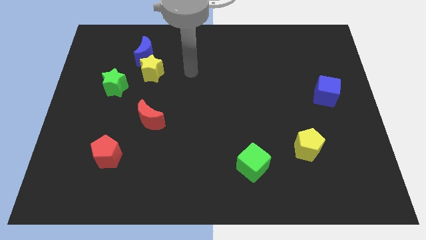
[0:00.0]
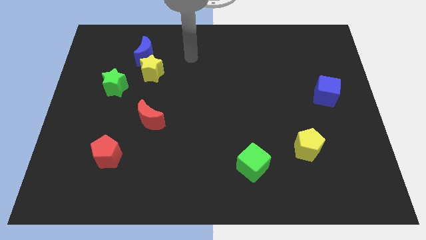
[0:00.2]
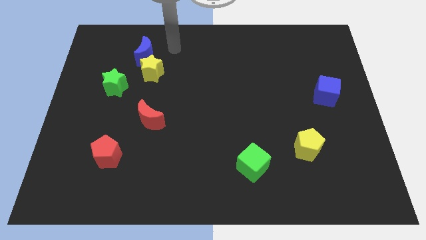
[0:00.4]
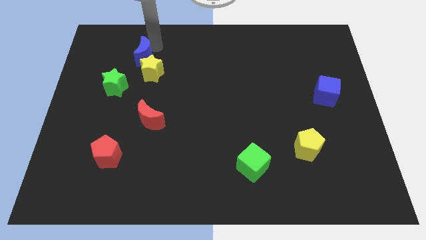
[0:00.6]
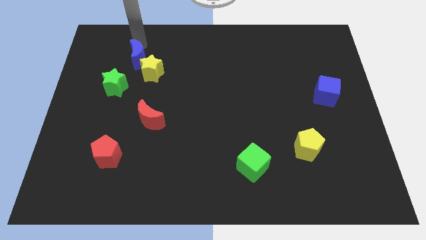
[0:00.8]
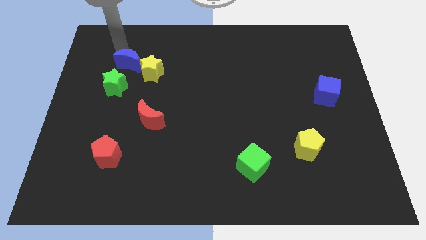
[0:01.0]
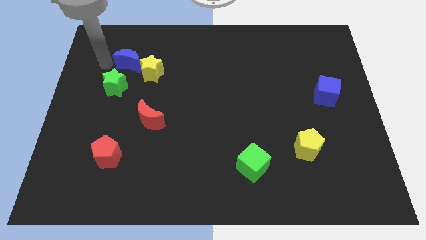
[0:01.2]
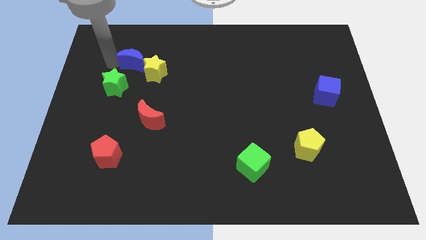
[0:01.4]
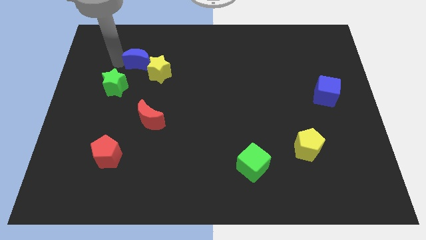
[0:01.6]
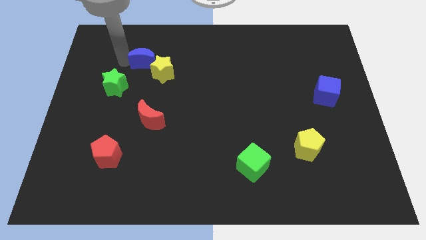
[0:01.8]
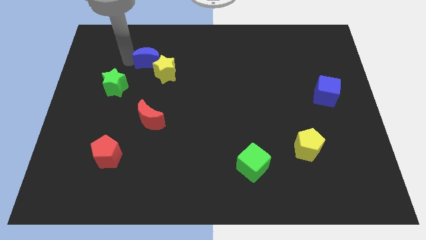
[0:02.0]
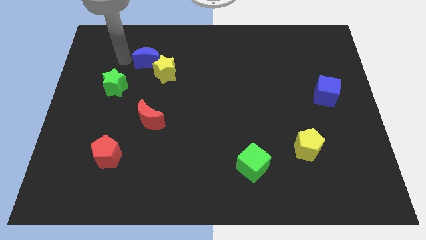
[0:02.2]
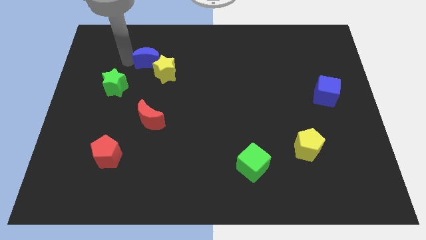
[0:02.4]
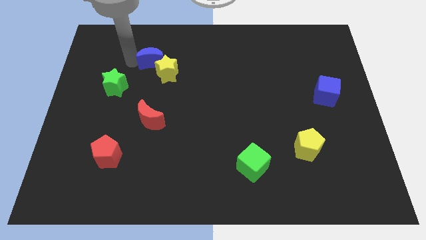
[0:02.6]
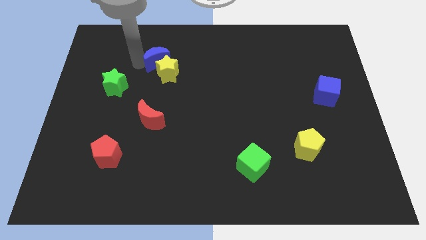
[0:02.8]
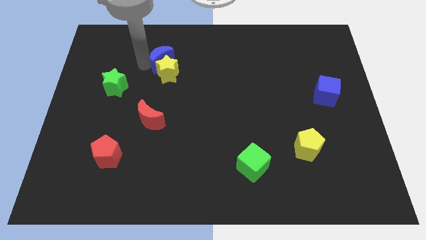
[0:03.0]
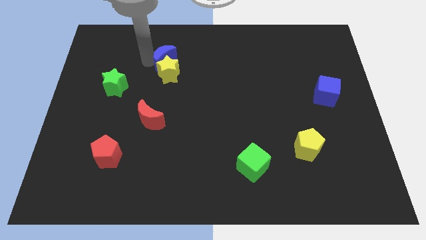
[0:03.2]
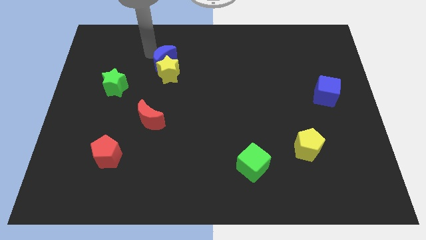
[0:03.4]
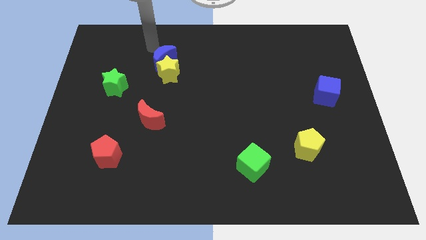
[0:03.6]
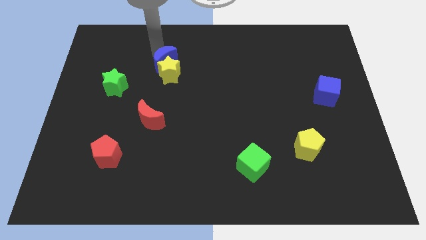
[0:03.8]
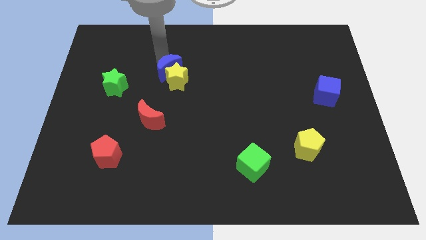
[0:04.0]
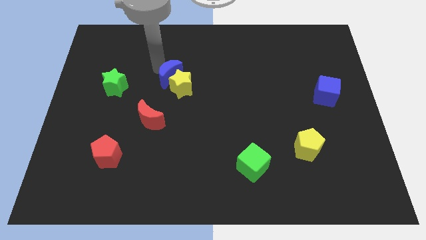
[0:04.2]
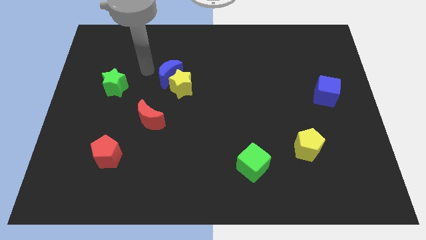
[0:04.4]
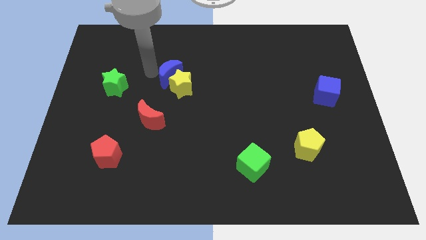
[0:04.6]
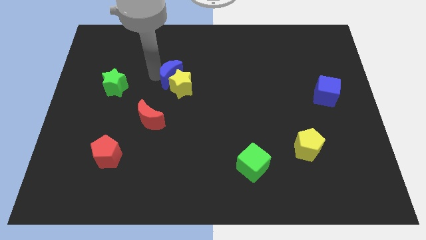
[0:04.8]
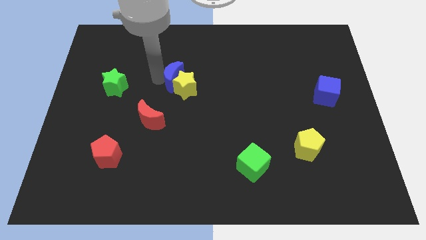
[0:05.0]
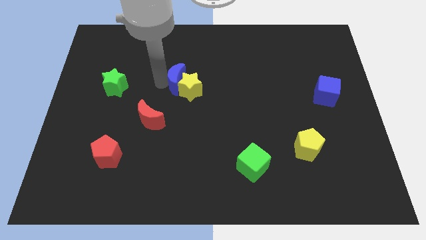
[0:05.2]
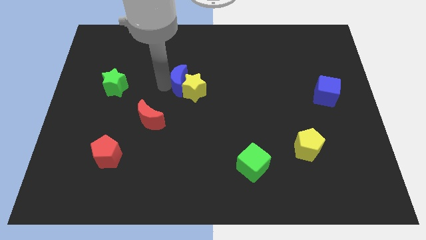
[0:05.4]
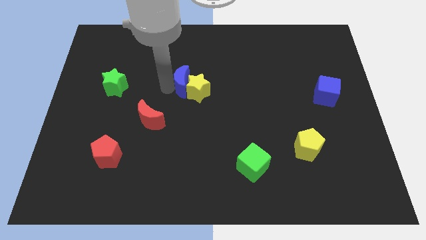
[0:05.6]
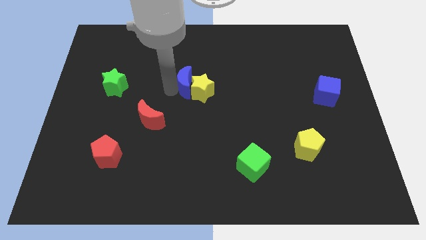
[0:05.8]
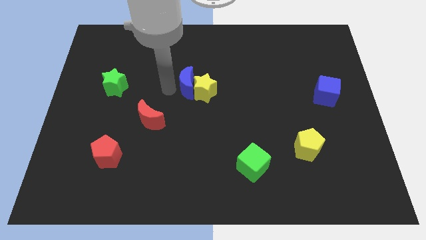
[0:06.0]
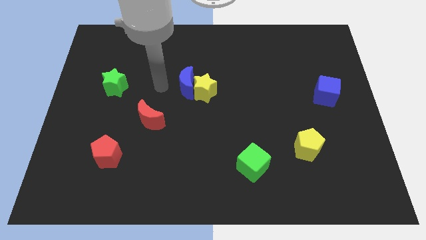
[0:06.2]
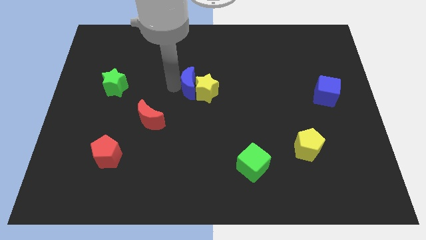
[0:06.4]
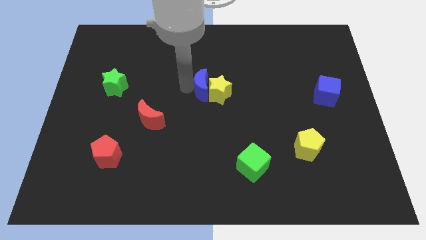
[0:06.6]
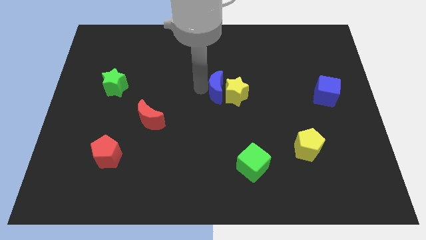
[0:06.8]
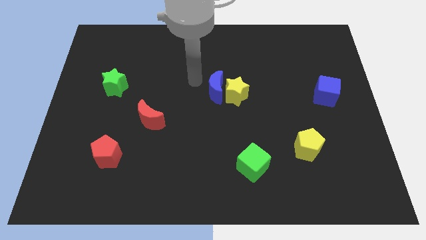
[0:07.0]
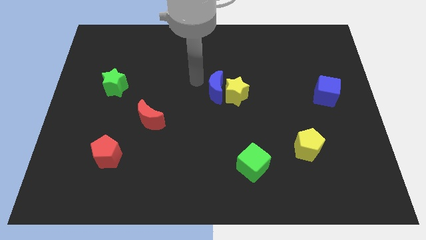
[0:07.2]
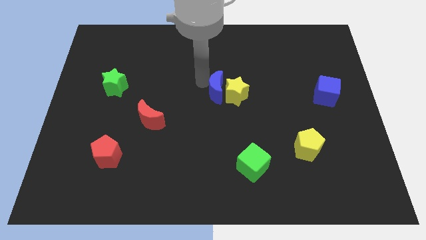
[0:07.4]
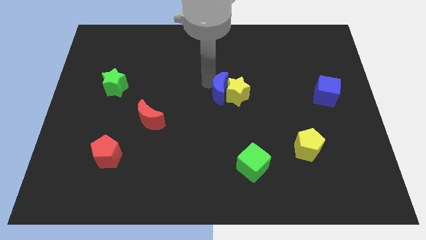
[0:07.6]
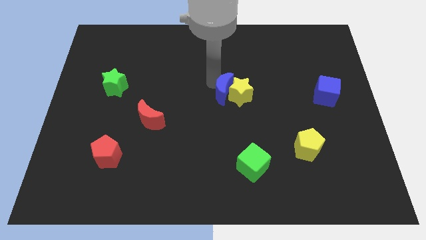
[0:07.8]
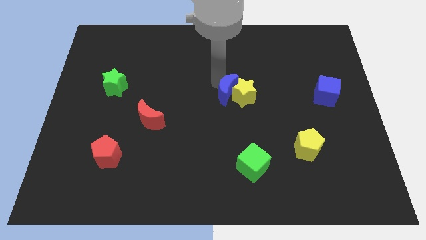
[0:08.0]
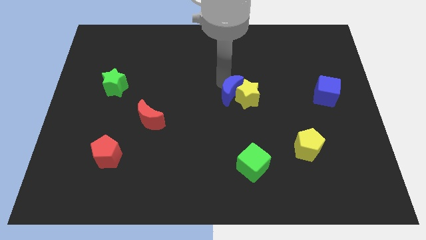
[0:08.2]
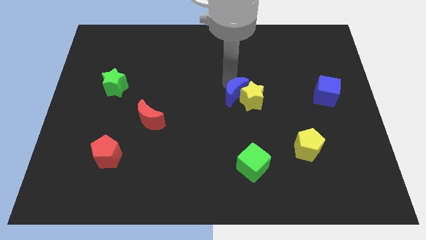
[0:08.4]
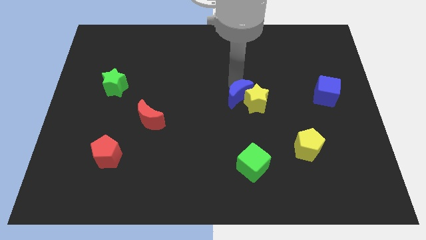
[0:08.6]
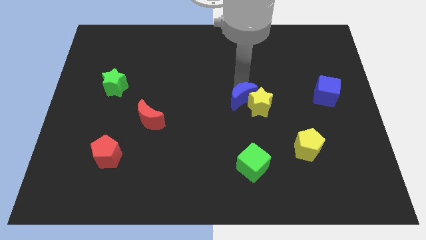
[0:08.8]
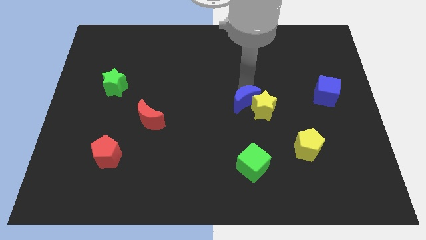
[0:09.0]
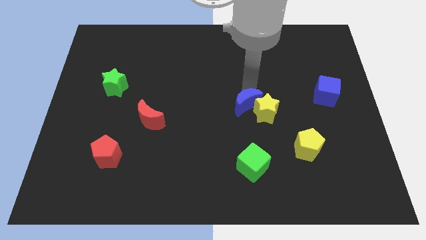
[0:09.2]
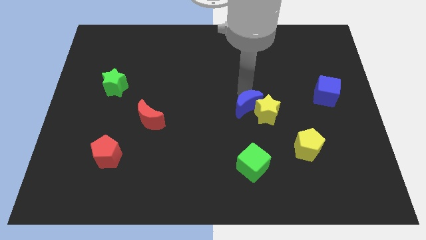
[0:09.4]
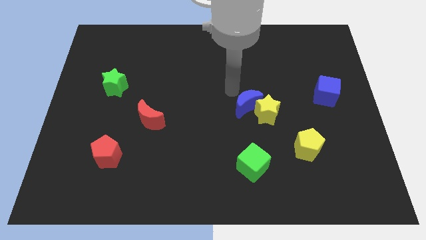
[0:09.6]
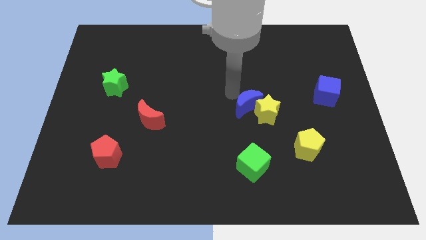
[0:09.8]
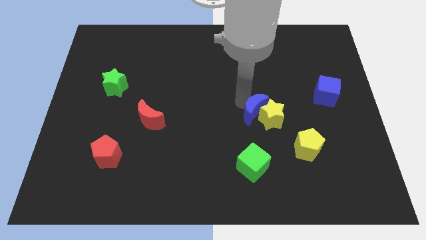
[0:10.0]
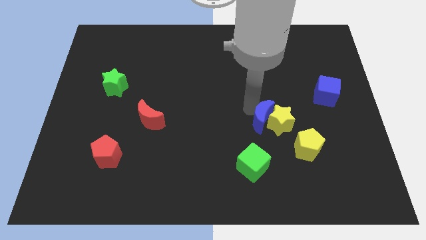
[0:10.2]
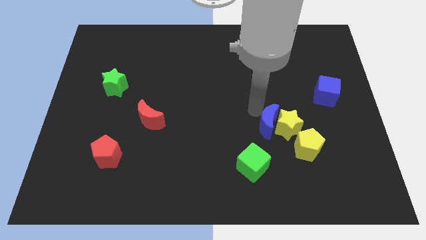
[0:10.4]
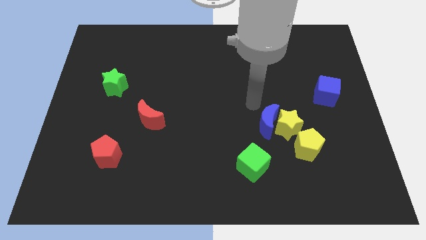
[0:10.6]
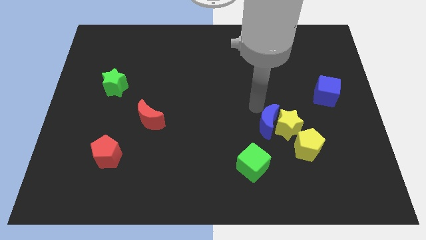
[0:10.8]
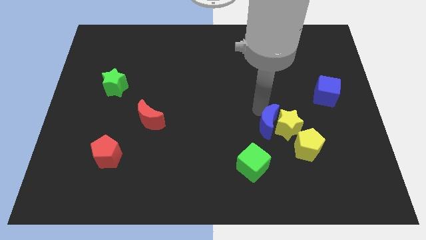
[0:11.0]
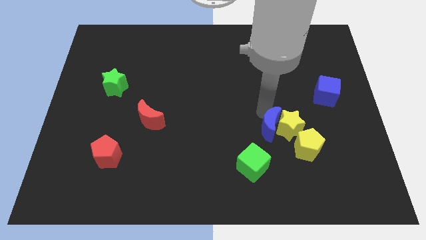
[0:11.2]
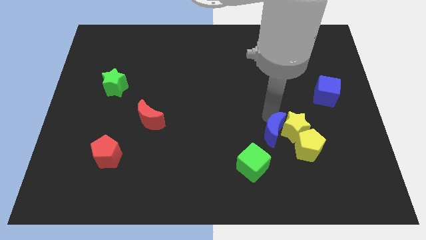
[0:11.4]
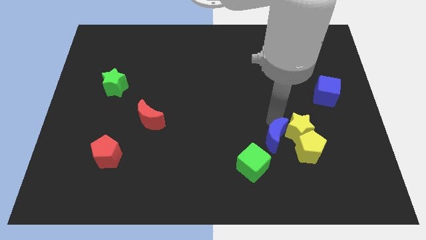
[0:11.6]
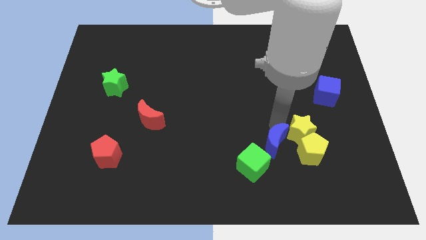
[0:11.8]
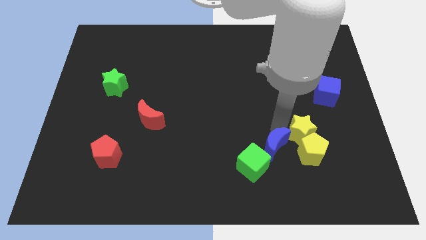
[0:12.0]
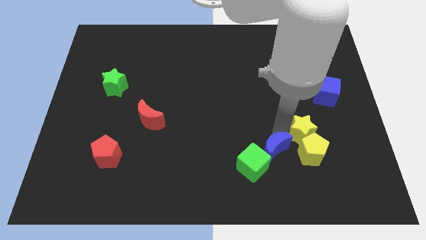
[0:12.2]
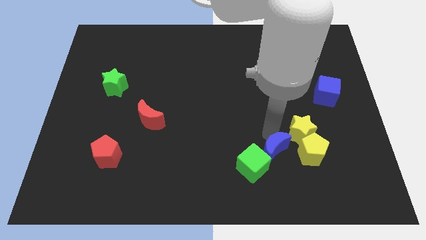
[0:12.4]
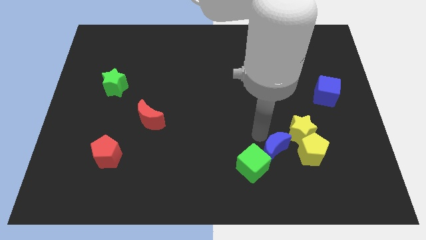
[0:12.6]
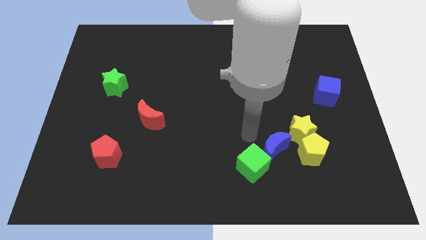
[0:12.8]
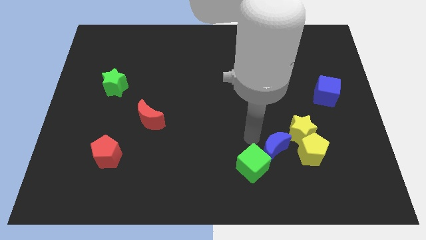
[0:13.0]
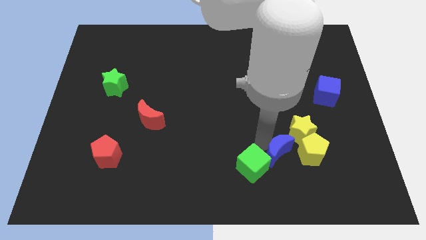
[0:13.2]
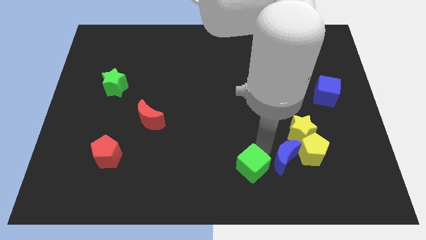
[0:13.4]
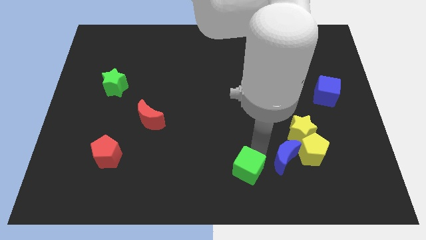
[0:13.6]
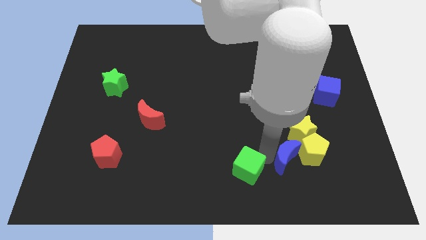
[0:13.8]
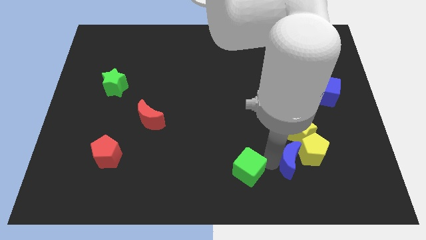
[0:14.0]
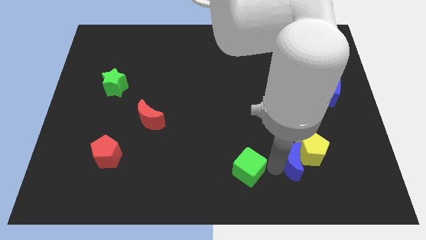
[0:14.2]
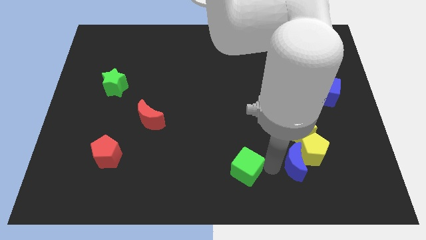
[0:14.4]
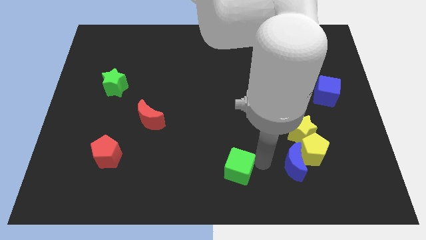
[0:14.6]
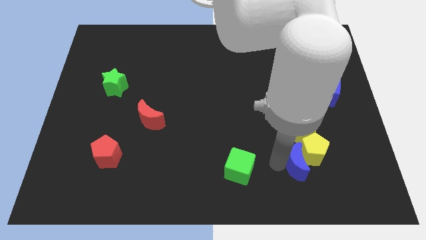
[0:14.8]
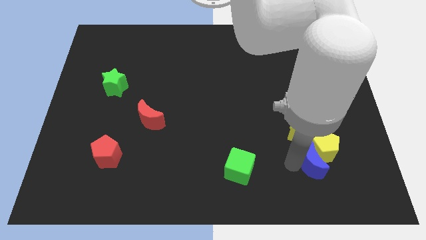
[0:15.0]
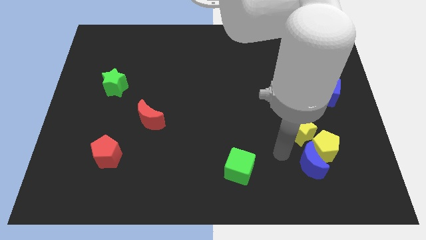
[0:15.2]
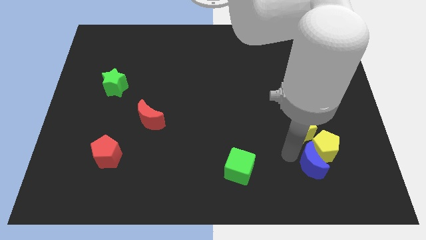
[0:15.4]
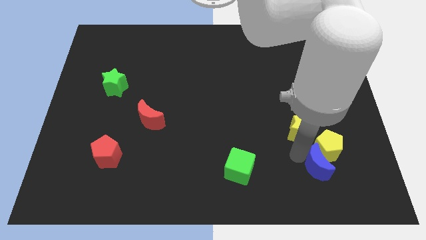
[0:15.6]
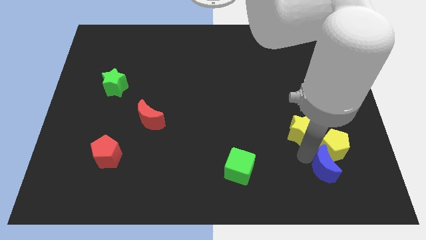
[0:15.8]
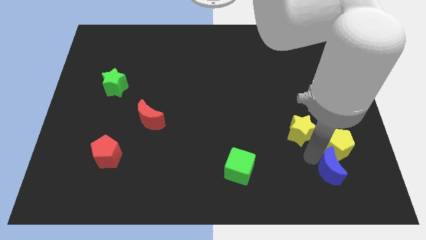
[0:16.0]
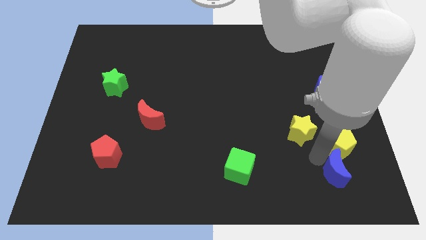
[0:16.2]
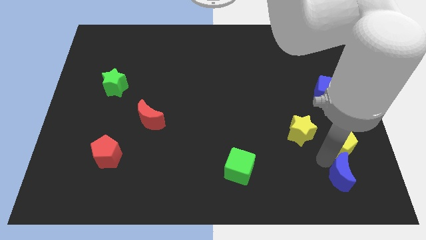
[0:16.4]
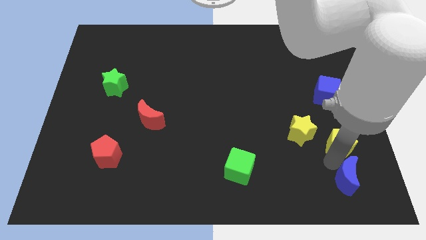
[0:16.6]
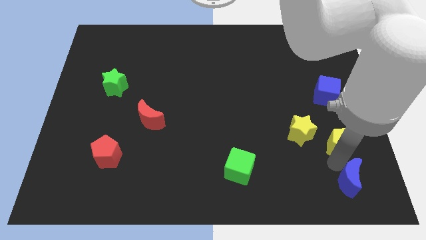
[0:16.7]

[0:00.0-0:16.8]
put the blue moon to the lower right corner
